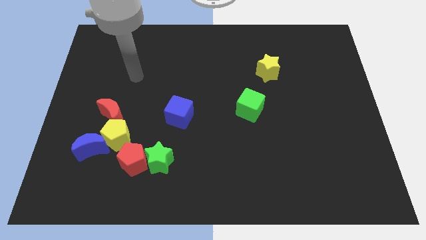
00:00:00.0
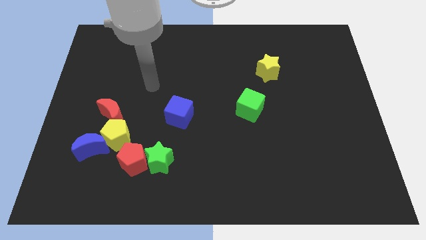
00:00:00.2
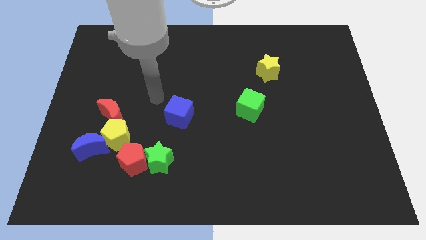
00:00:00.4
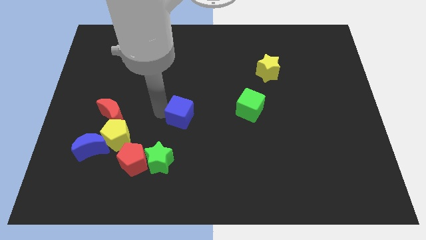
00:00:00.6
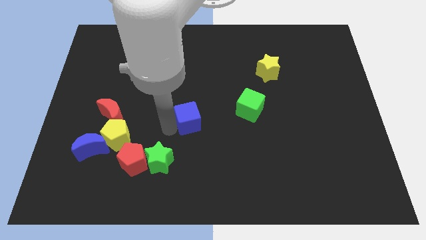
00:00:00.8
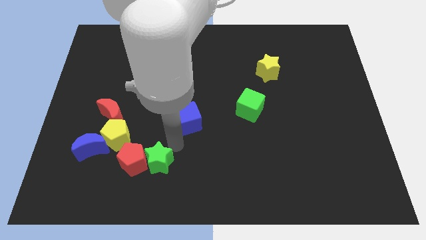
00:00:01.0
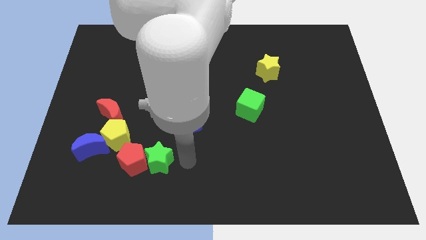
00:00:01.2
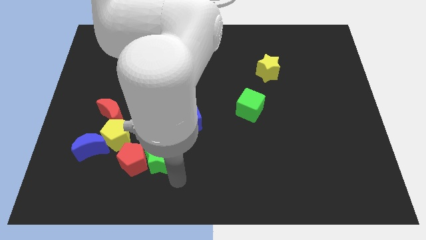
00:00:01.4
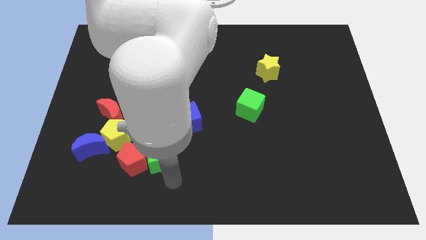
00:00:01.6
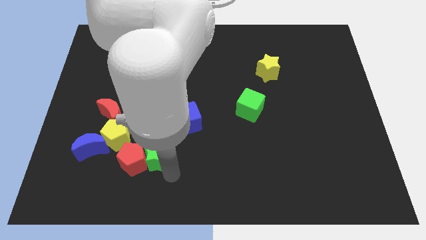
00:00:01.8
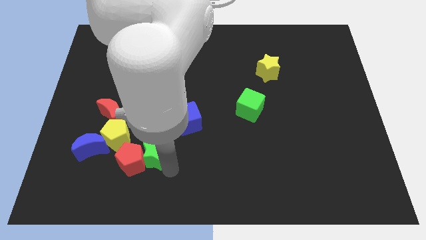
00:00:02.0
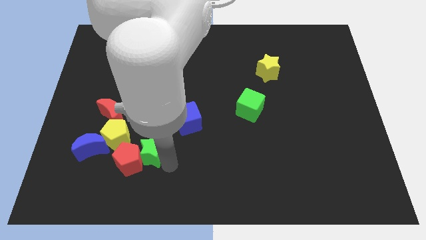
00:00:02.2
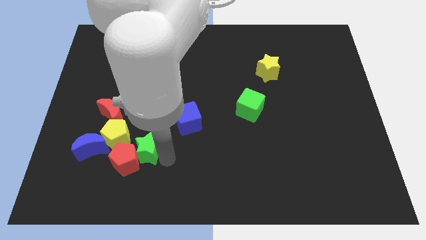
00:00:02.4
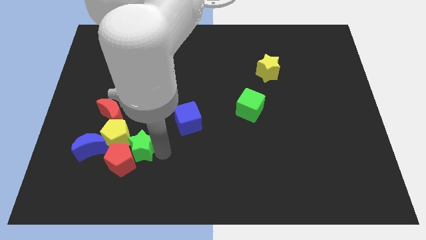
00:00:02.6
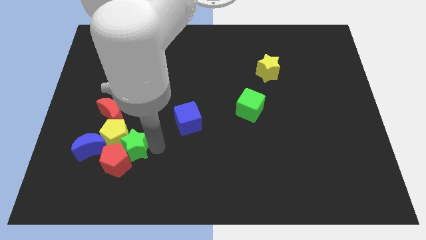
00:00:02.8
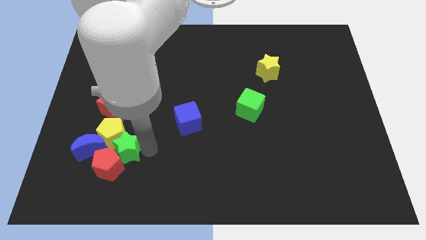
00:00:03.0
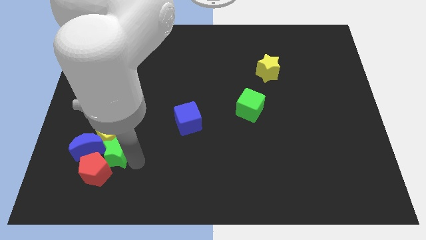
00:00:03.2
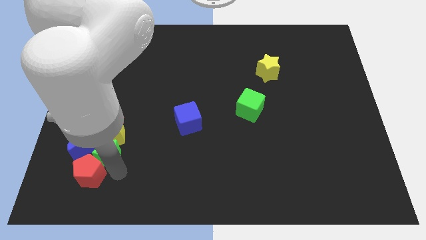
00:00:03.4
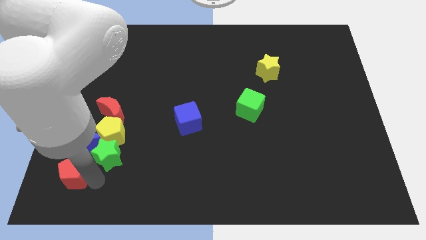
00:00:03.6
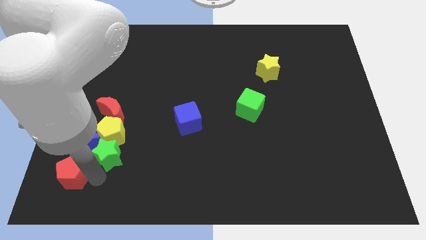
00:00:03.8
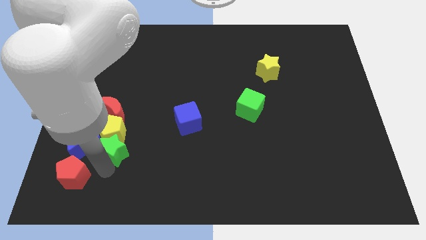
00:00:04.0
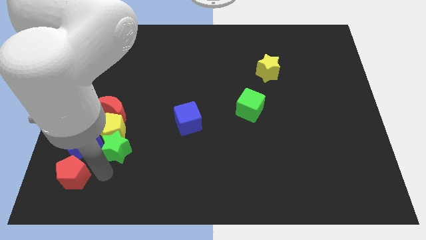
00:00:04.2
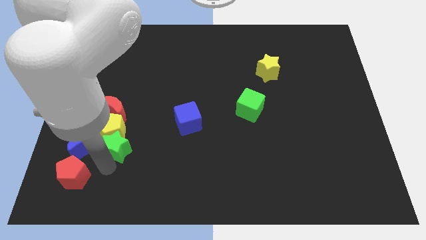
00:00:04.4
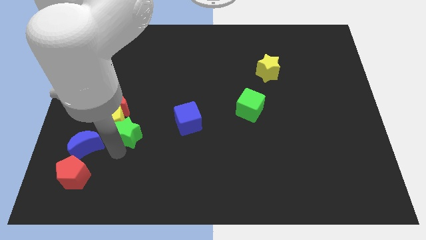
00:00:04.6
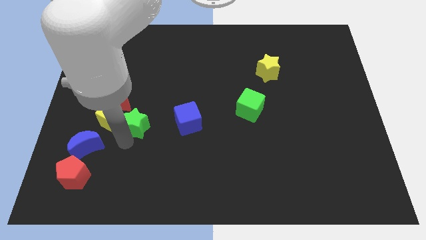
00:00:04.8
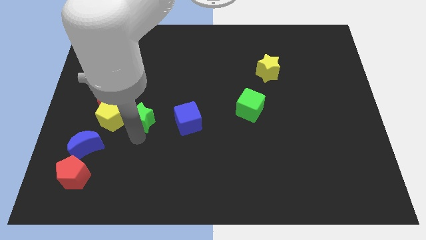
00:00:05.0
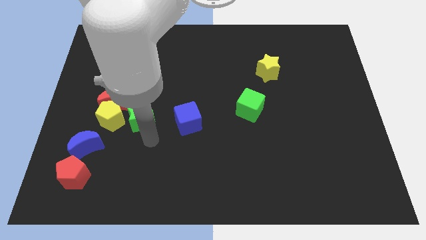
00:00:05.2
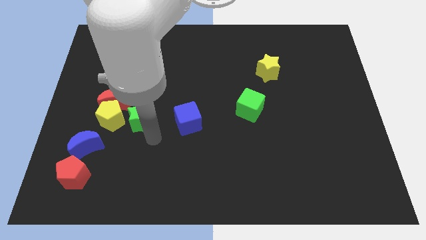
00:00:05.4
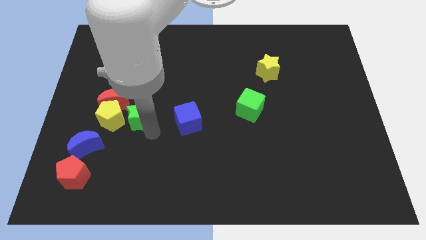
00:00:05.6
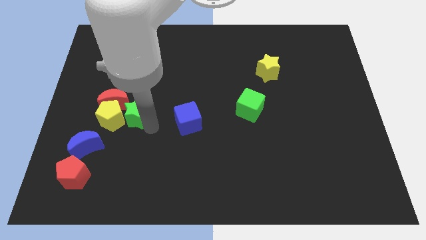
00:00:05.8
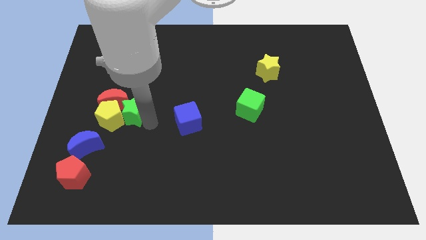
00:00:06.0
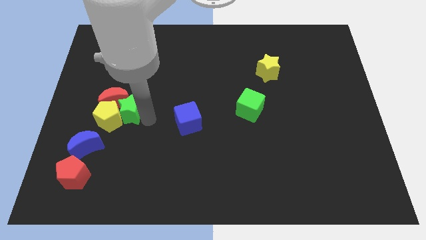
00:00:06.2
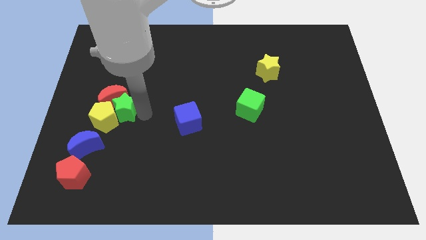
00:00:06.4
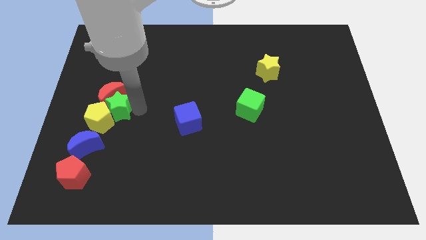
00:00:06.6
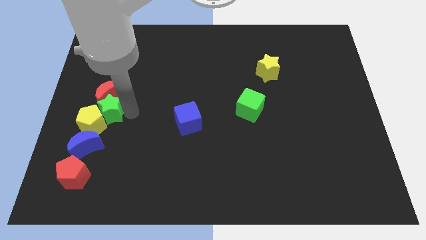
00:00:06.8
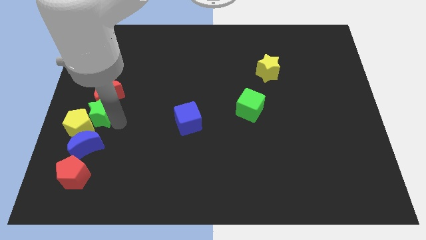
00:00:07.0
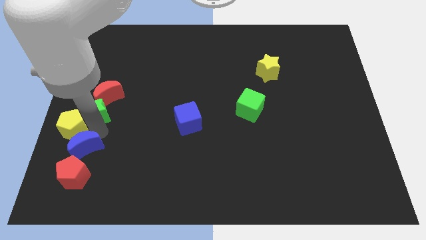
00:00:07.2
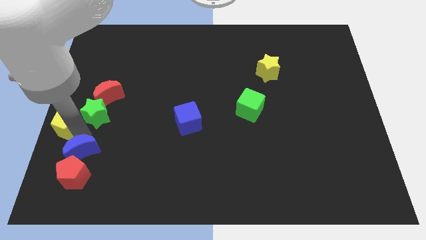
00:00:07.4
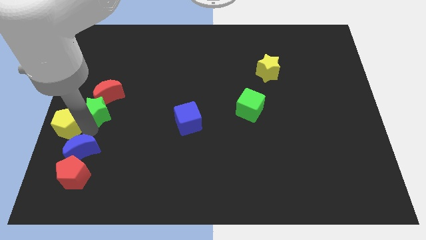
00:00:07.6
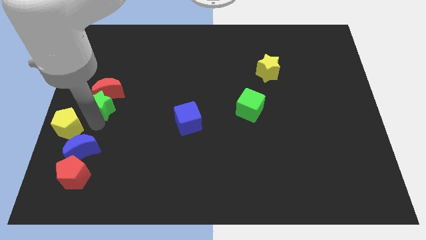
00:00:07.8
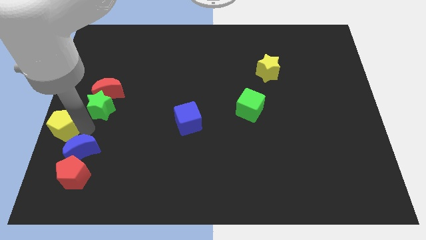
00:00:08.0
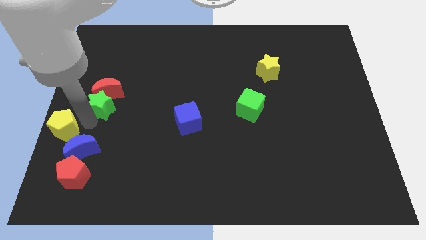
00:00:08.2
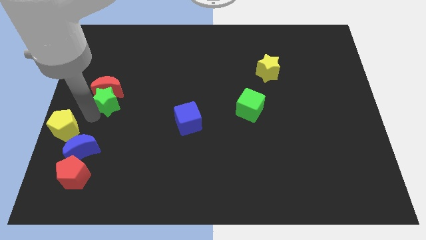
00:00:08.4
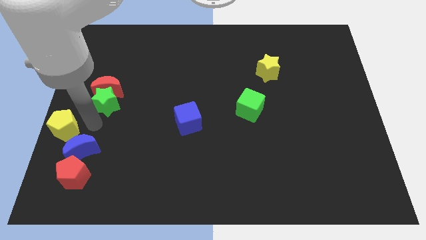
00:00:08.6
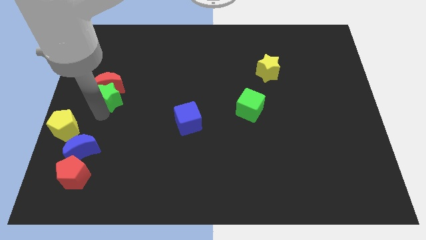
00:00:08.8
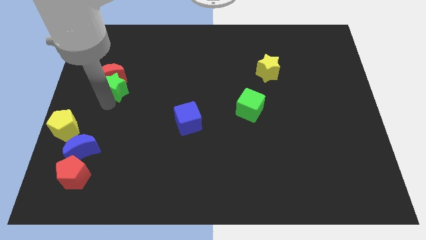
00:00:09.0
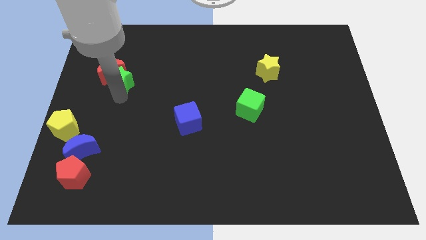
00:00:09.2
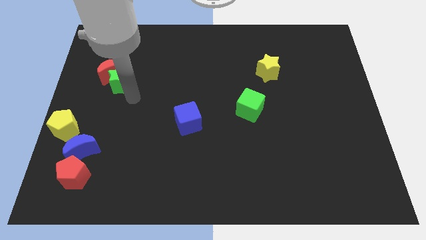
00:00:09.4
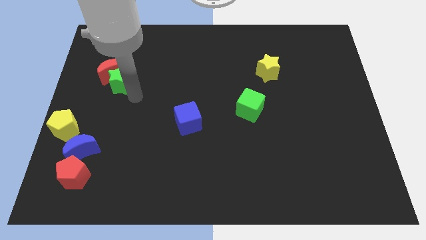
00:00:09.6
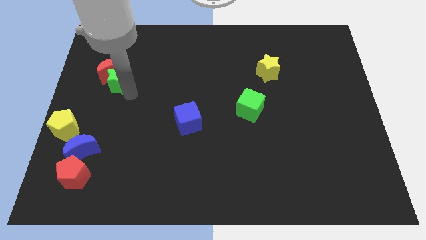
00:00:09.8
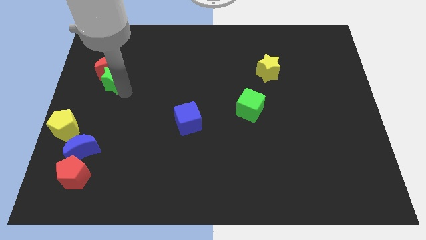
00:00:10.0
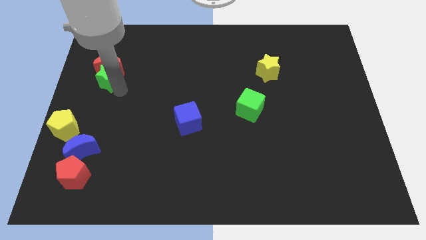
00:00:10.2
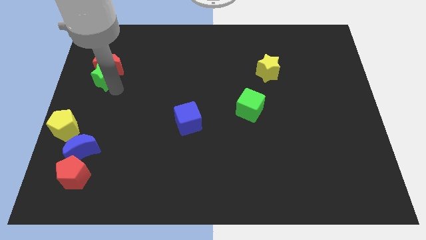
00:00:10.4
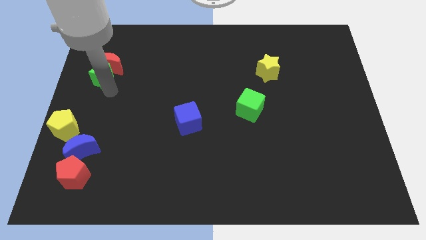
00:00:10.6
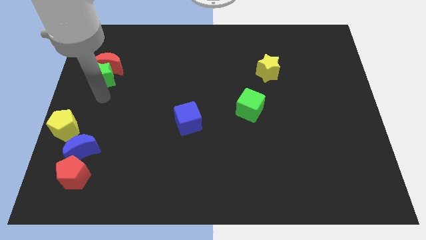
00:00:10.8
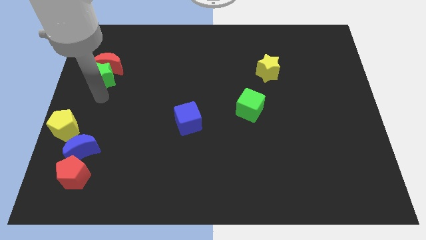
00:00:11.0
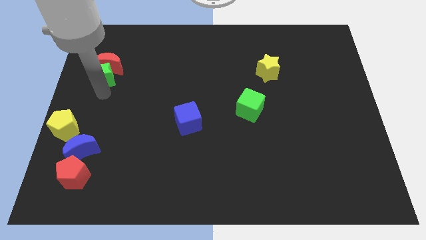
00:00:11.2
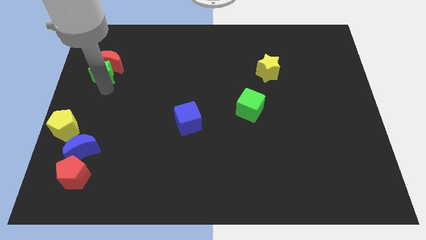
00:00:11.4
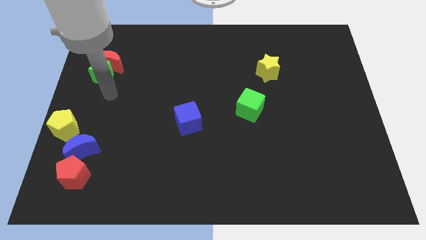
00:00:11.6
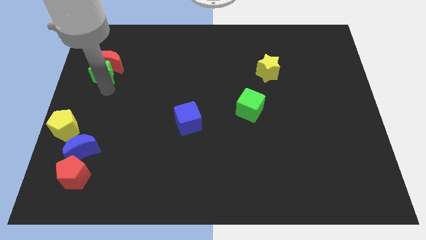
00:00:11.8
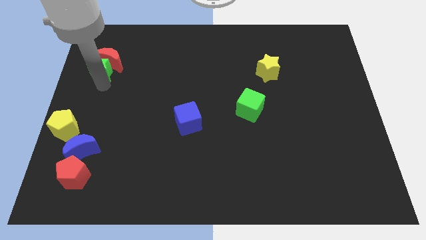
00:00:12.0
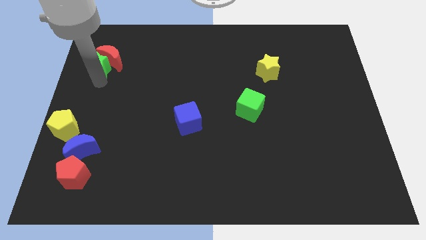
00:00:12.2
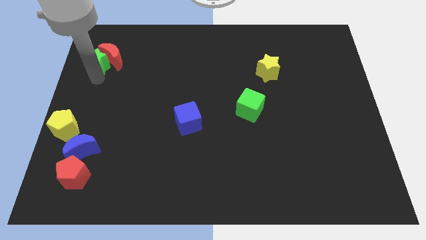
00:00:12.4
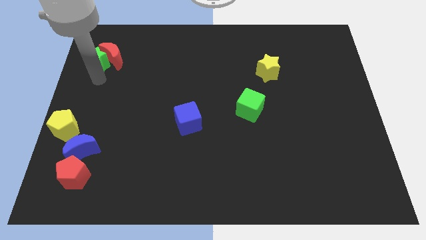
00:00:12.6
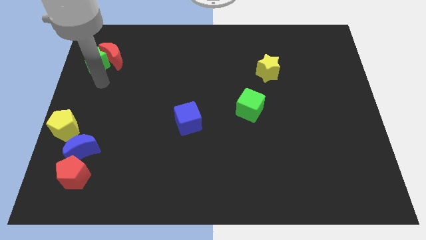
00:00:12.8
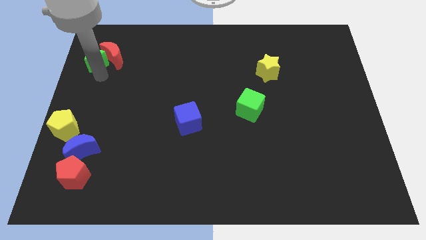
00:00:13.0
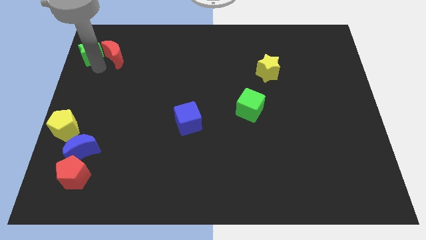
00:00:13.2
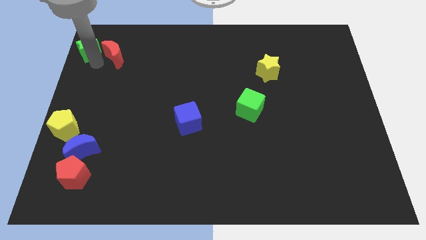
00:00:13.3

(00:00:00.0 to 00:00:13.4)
put the green star to the top left corner
